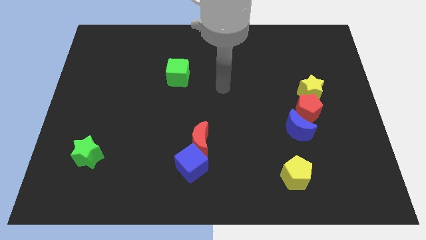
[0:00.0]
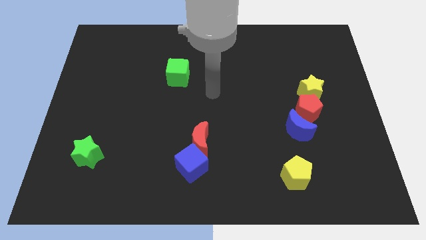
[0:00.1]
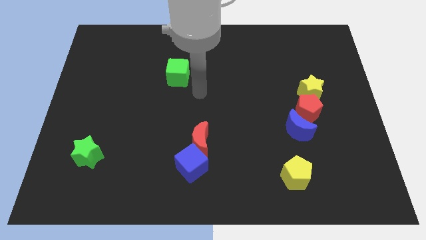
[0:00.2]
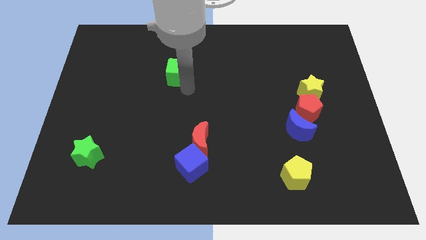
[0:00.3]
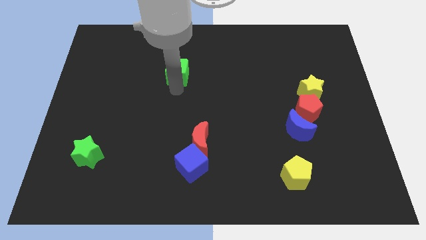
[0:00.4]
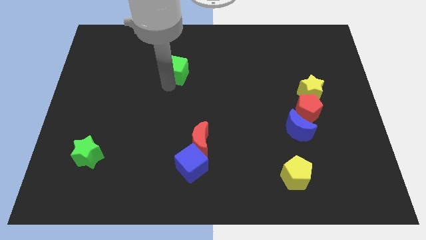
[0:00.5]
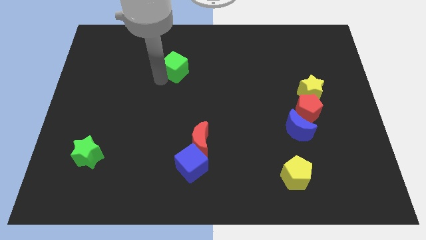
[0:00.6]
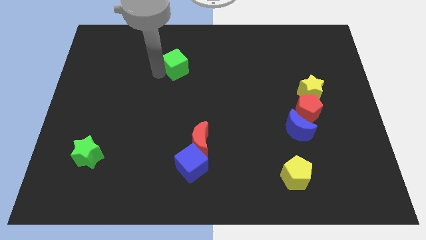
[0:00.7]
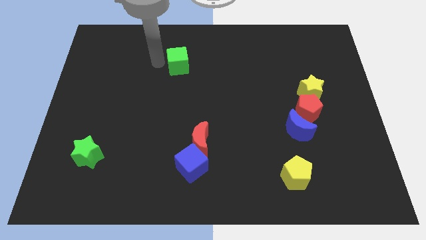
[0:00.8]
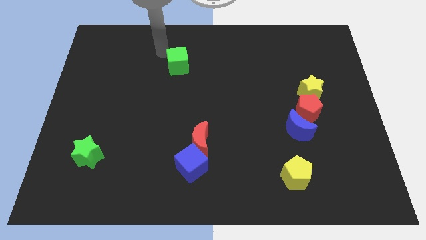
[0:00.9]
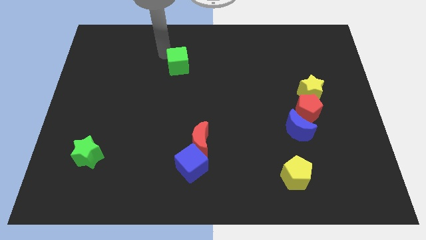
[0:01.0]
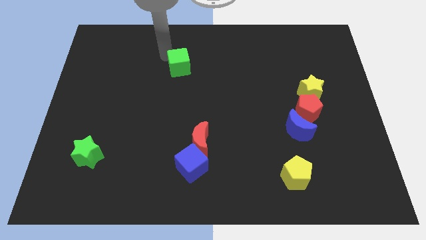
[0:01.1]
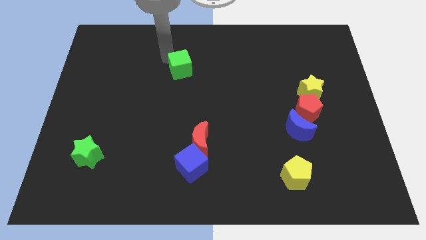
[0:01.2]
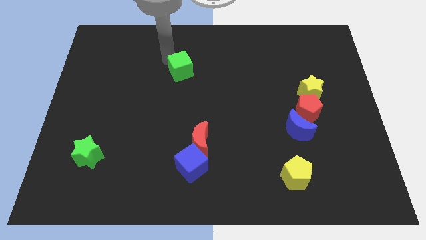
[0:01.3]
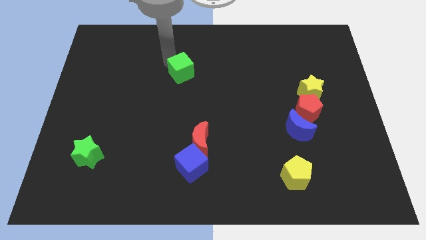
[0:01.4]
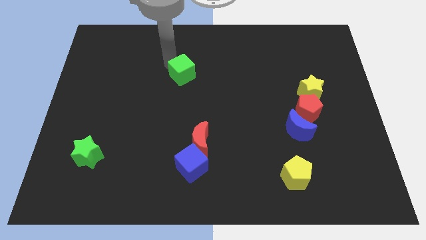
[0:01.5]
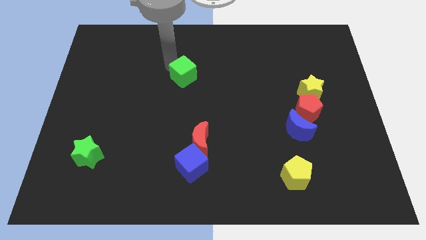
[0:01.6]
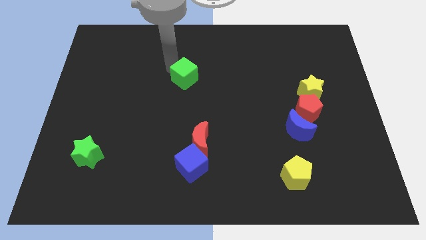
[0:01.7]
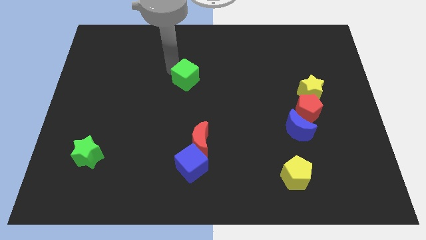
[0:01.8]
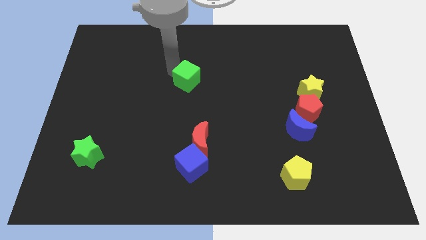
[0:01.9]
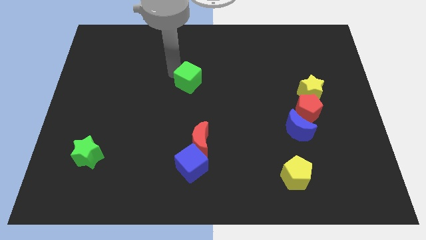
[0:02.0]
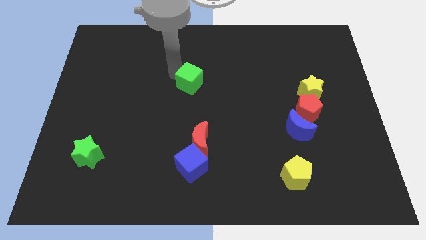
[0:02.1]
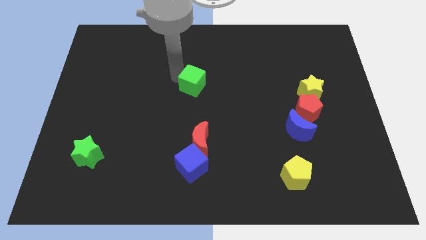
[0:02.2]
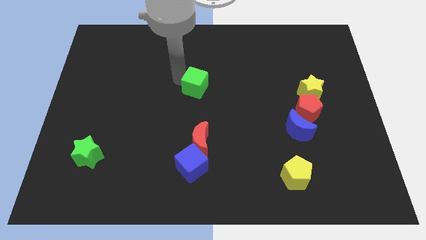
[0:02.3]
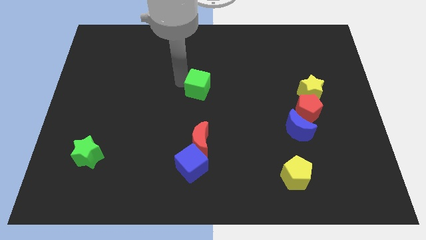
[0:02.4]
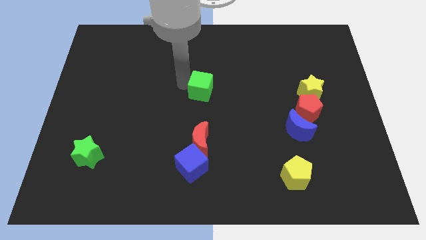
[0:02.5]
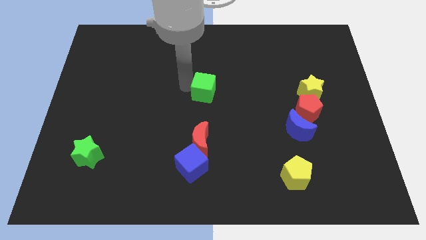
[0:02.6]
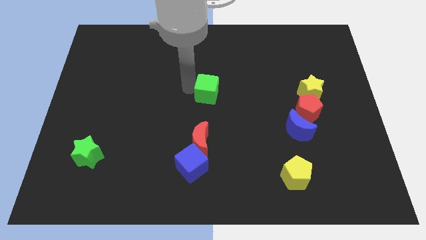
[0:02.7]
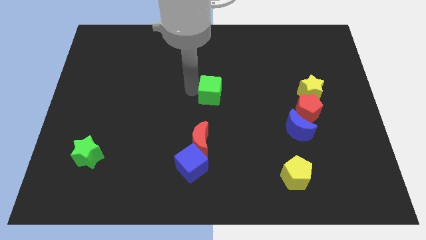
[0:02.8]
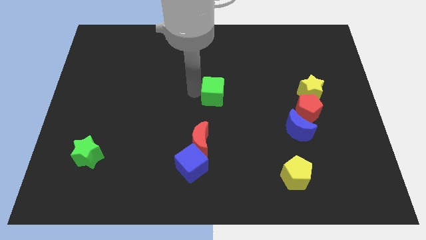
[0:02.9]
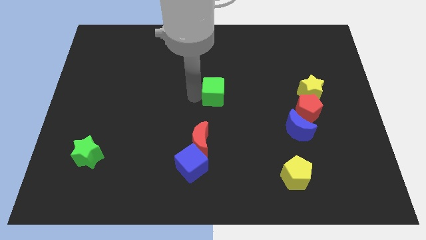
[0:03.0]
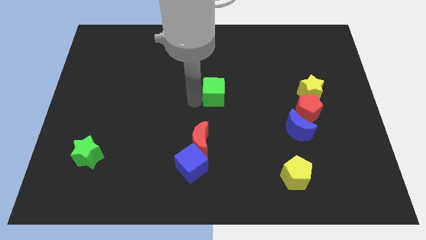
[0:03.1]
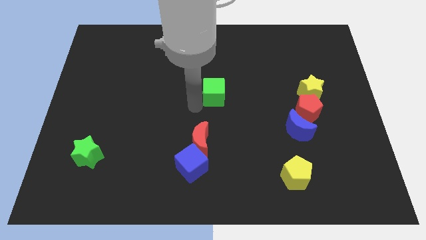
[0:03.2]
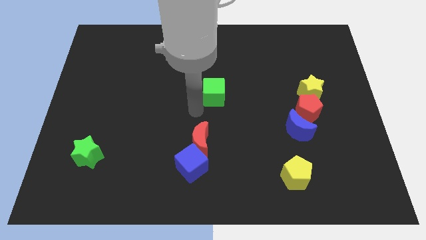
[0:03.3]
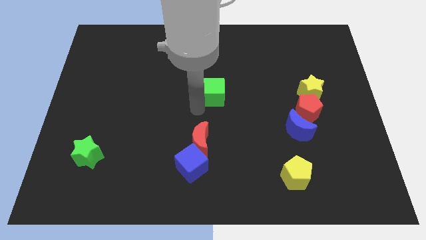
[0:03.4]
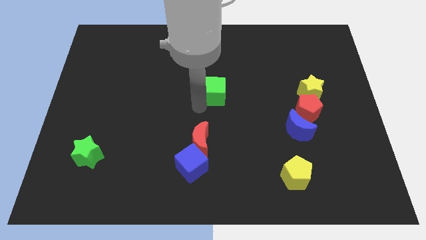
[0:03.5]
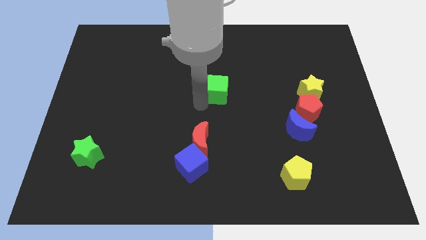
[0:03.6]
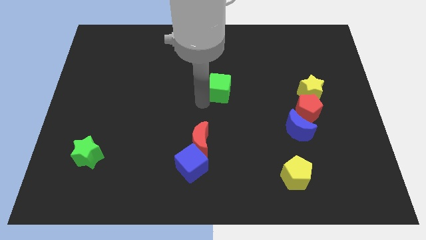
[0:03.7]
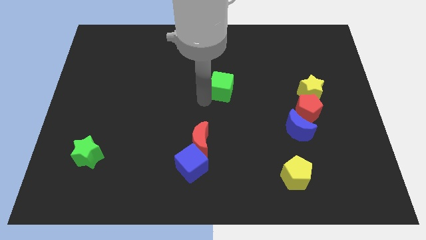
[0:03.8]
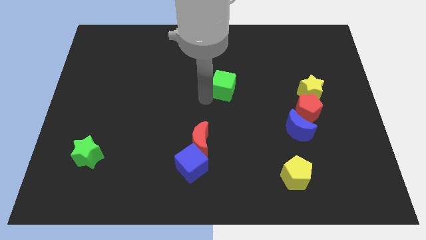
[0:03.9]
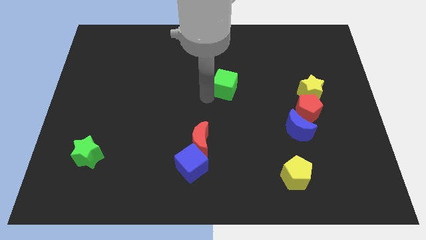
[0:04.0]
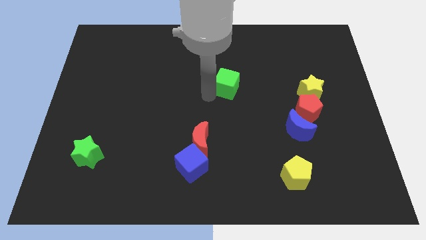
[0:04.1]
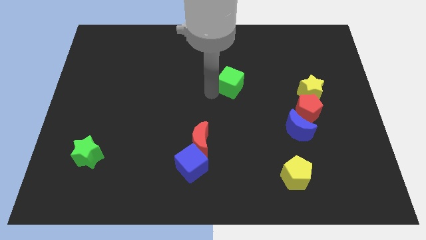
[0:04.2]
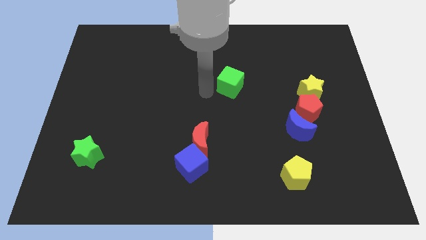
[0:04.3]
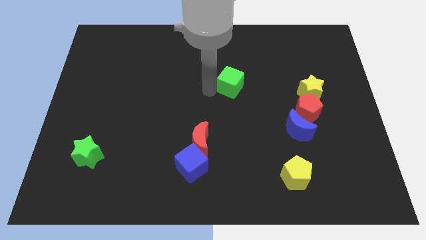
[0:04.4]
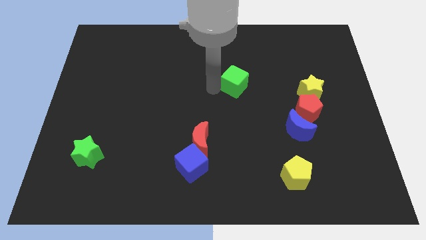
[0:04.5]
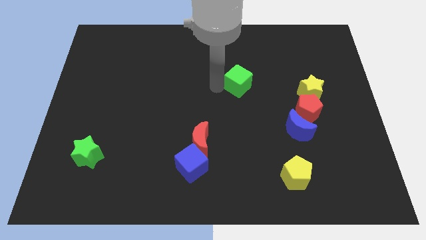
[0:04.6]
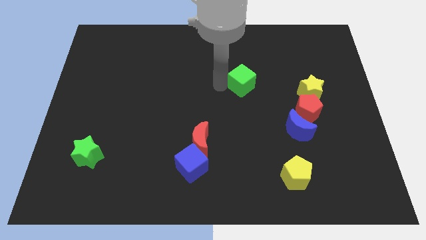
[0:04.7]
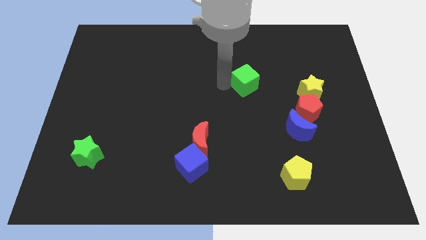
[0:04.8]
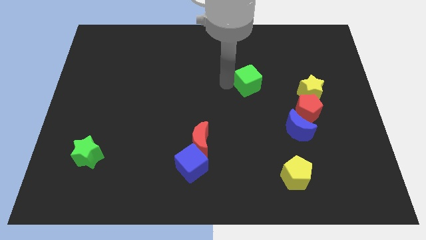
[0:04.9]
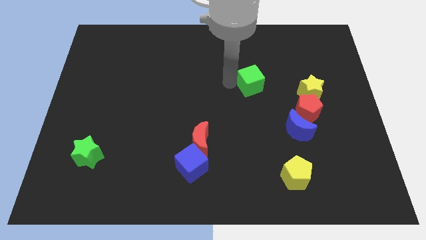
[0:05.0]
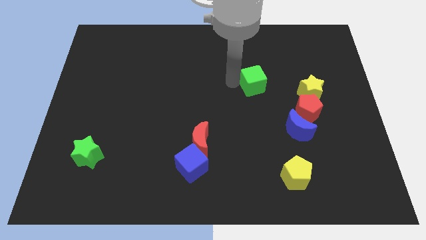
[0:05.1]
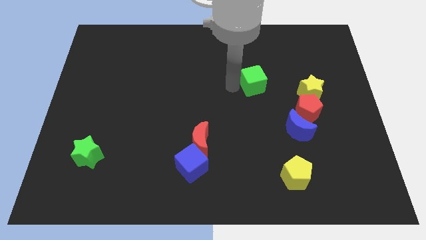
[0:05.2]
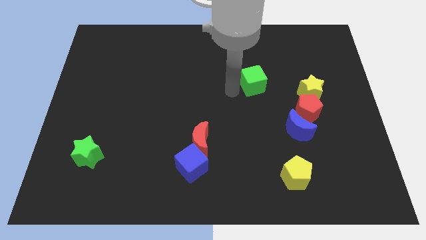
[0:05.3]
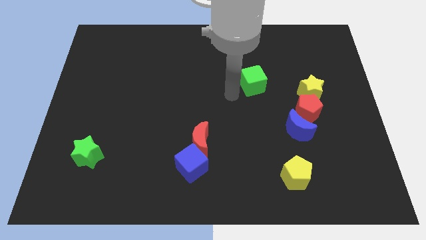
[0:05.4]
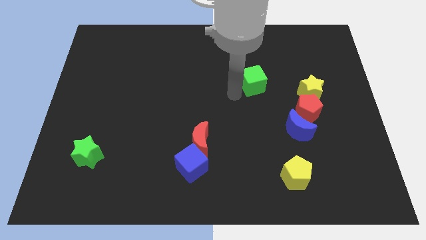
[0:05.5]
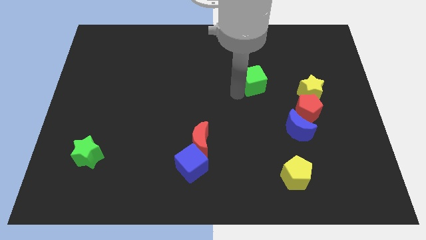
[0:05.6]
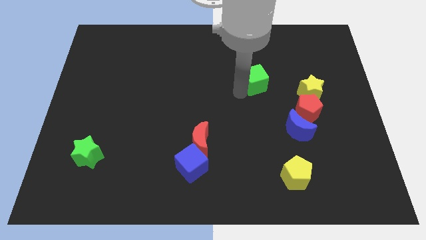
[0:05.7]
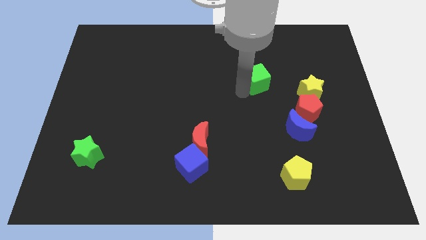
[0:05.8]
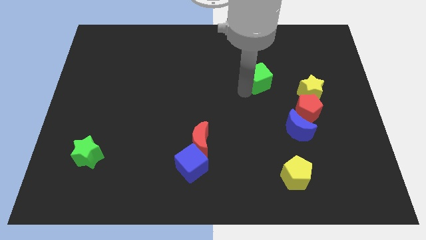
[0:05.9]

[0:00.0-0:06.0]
slide the green cube to the right

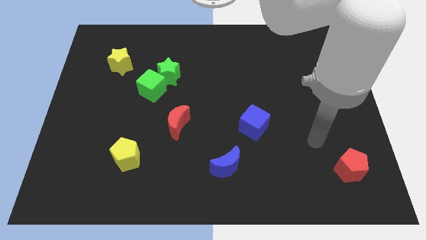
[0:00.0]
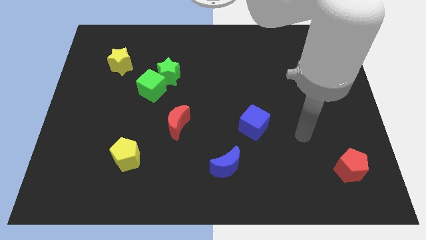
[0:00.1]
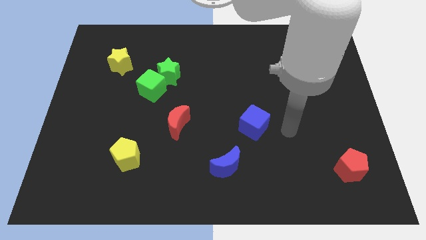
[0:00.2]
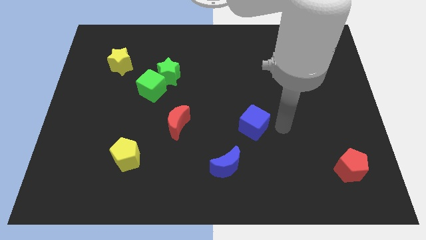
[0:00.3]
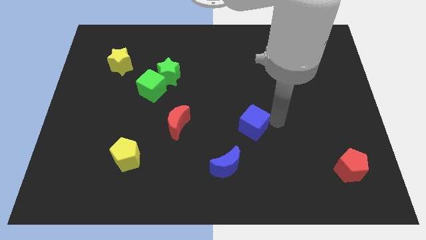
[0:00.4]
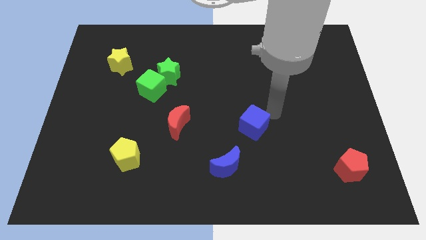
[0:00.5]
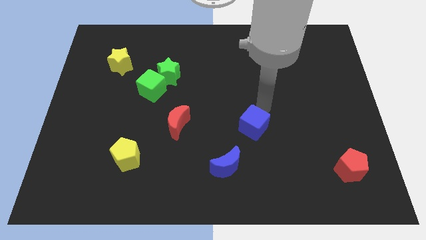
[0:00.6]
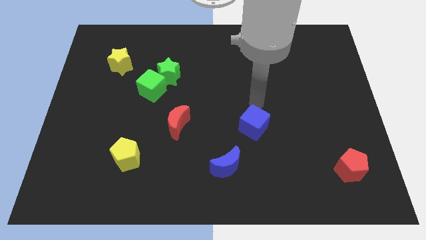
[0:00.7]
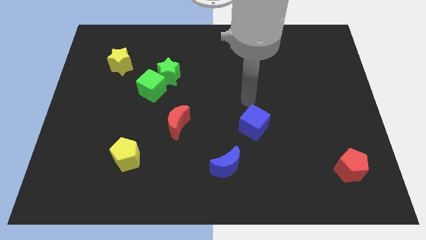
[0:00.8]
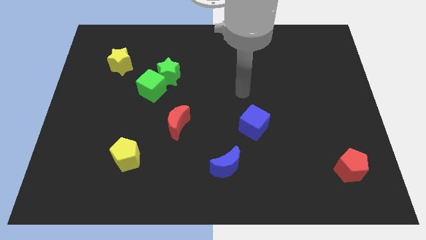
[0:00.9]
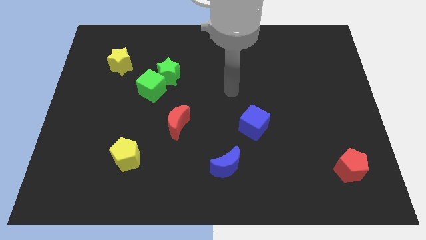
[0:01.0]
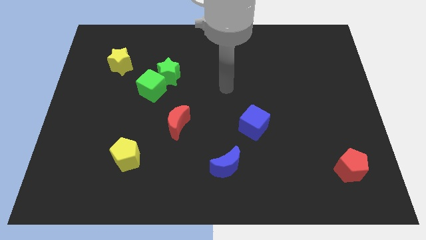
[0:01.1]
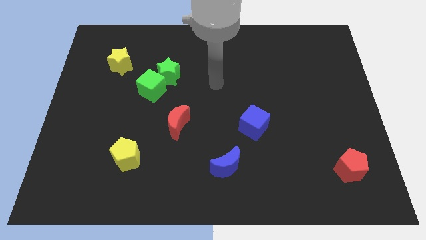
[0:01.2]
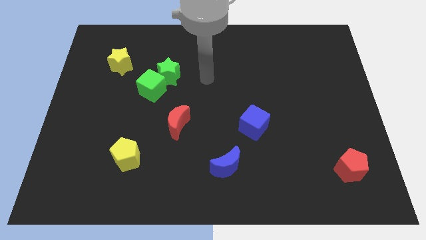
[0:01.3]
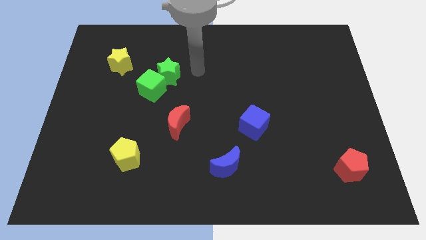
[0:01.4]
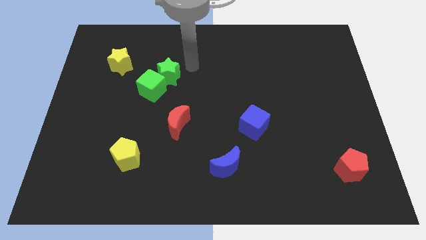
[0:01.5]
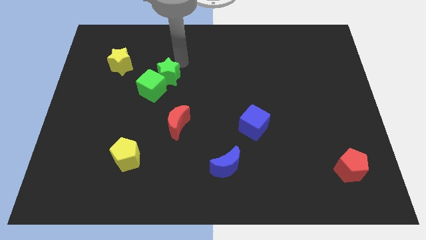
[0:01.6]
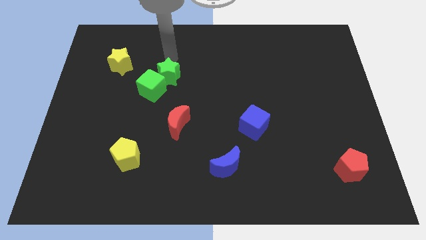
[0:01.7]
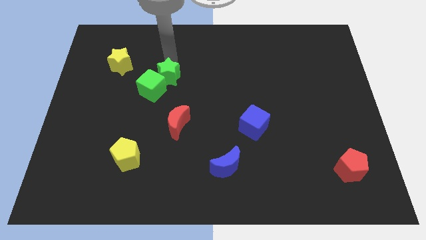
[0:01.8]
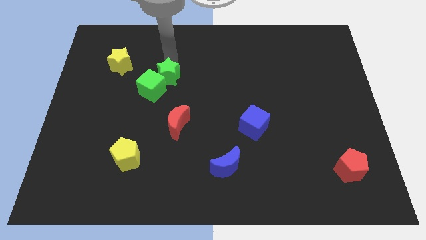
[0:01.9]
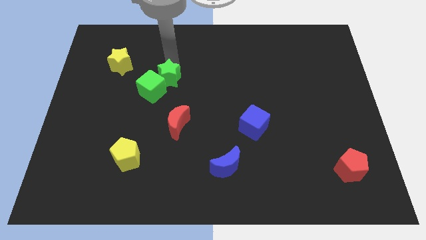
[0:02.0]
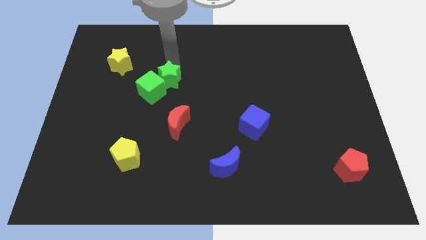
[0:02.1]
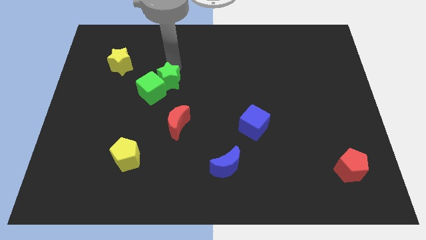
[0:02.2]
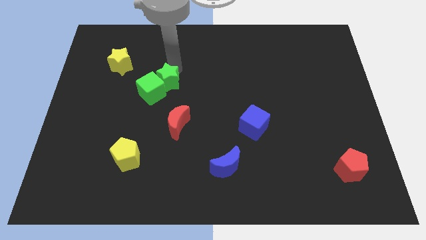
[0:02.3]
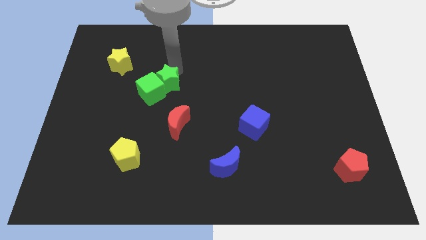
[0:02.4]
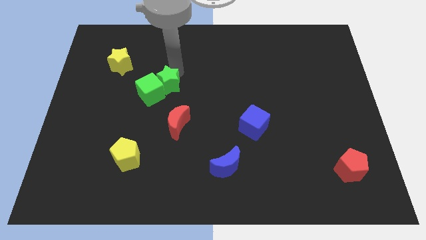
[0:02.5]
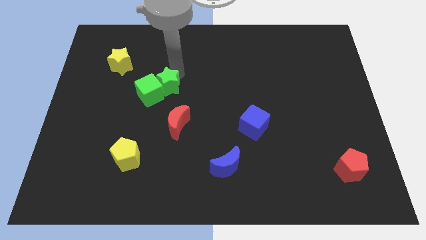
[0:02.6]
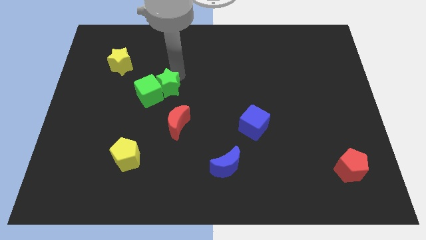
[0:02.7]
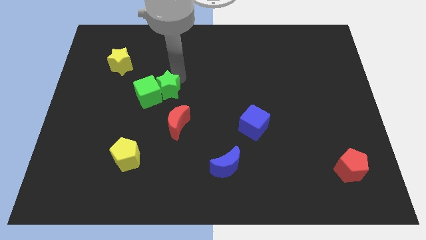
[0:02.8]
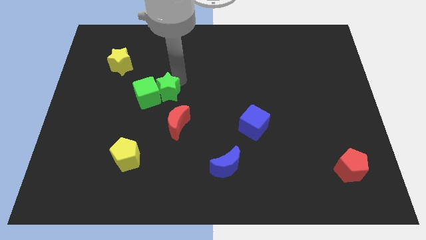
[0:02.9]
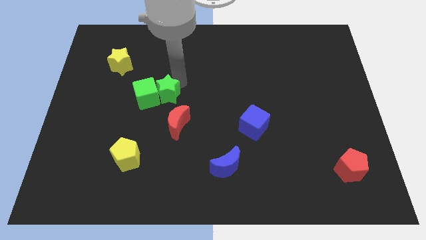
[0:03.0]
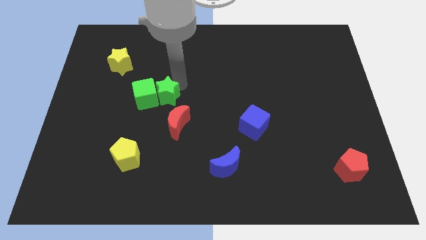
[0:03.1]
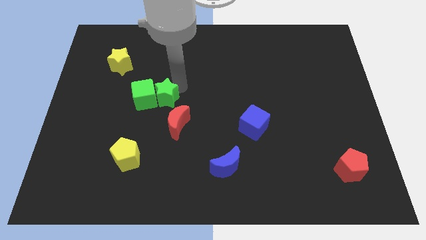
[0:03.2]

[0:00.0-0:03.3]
move the green star down a little
